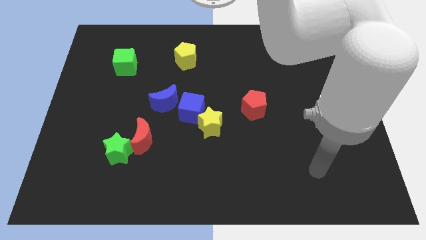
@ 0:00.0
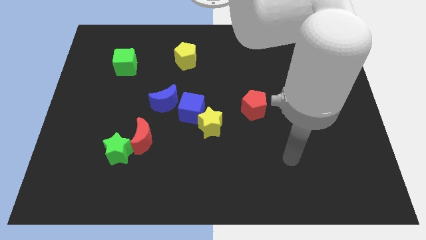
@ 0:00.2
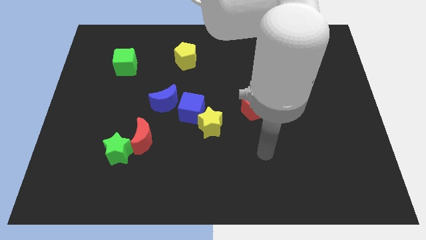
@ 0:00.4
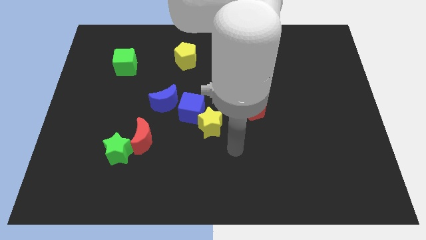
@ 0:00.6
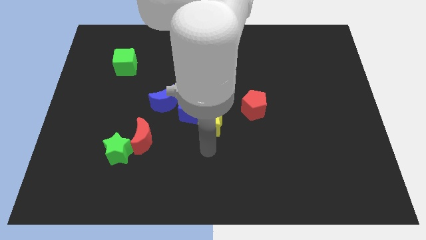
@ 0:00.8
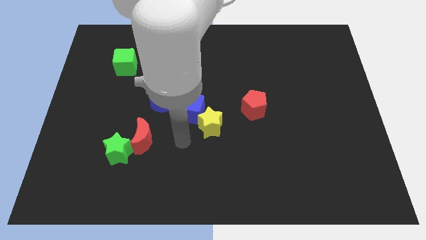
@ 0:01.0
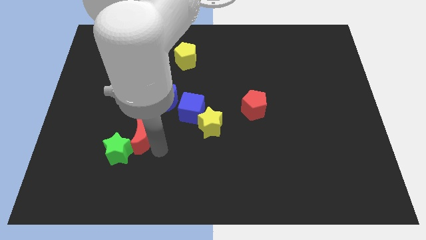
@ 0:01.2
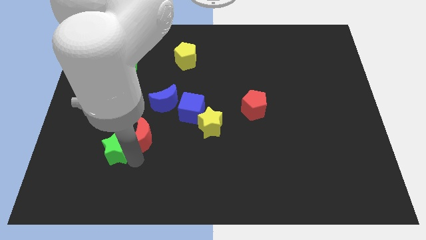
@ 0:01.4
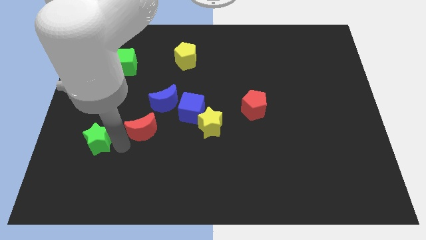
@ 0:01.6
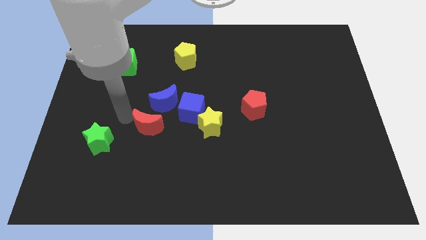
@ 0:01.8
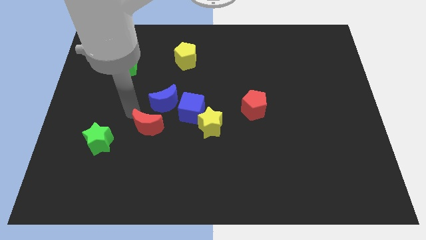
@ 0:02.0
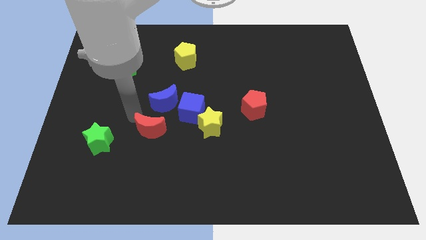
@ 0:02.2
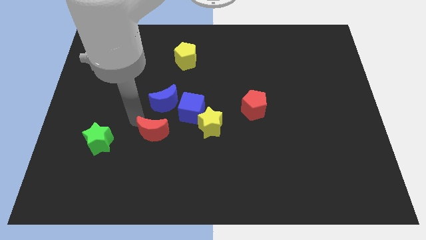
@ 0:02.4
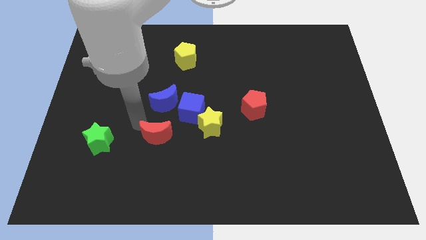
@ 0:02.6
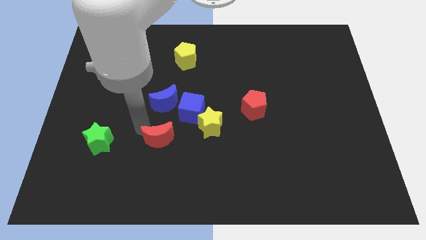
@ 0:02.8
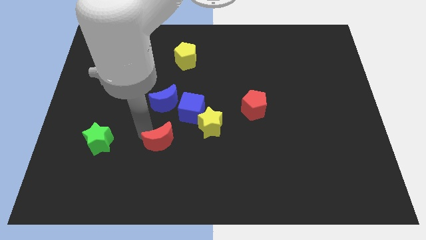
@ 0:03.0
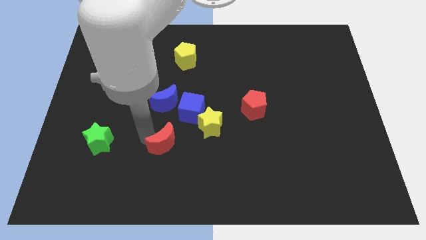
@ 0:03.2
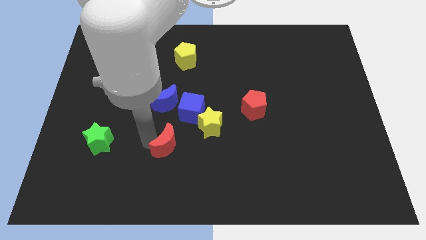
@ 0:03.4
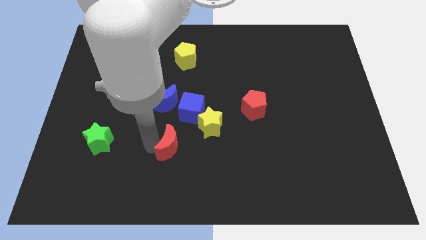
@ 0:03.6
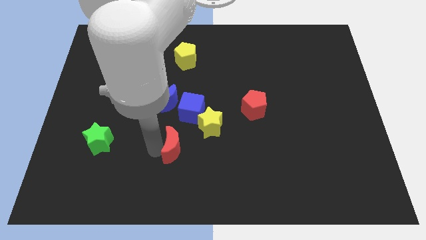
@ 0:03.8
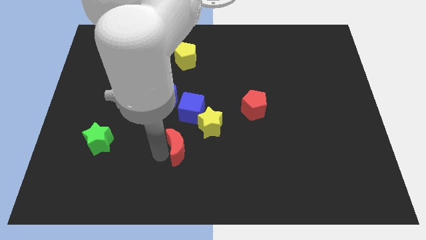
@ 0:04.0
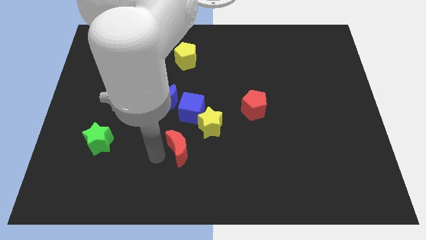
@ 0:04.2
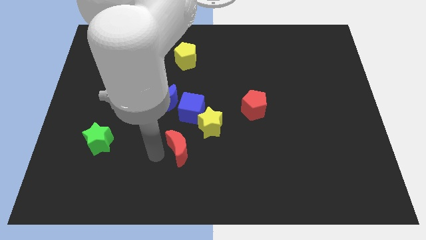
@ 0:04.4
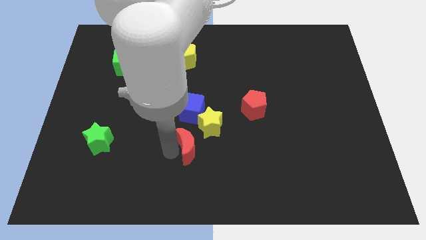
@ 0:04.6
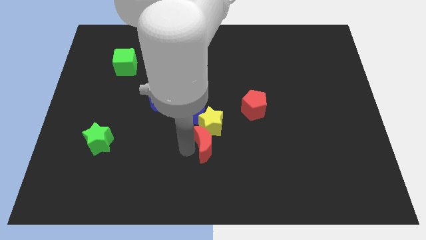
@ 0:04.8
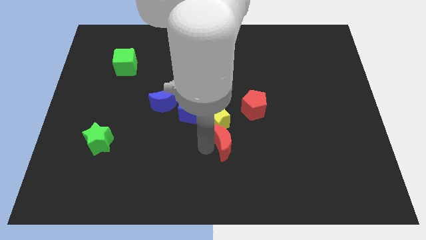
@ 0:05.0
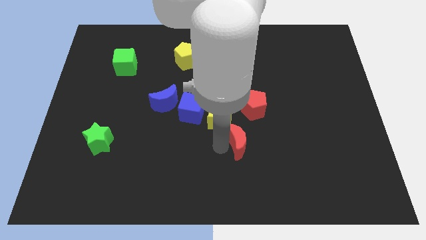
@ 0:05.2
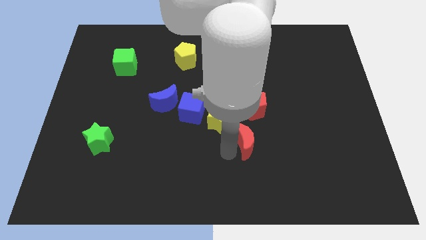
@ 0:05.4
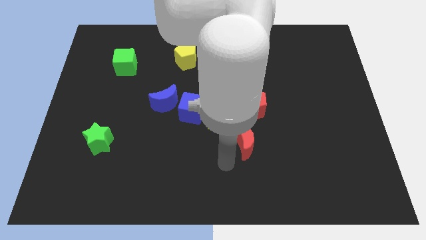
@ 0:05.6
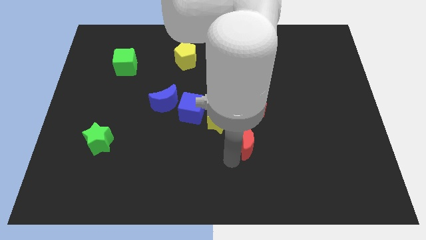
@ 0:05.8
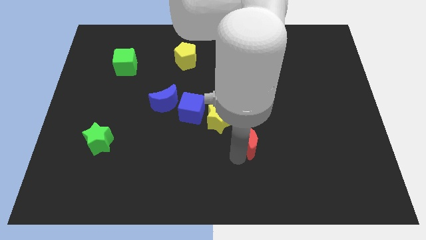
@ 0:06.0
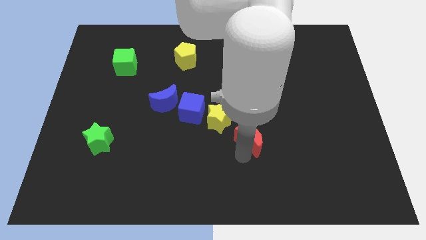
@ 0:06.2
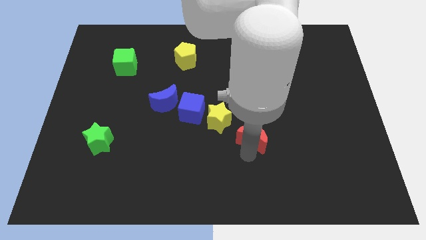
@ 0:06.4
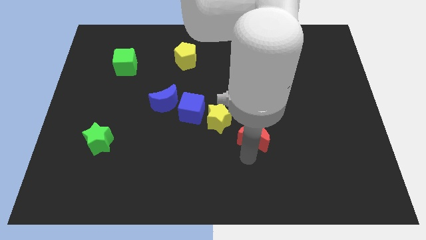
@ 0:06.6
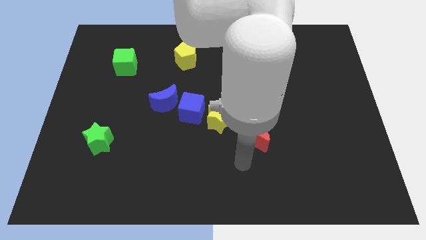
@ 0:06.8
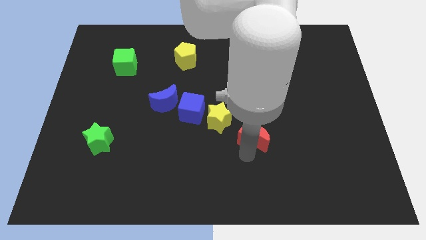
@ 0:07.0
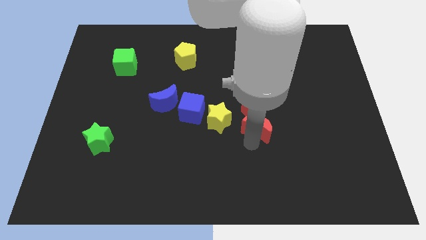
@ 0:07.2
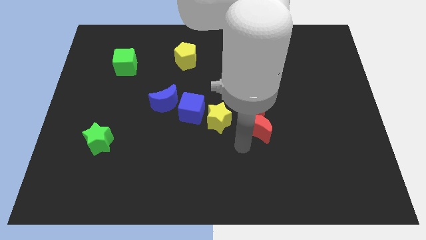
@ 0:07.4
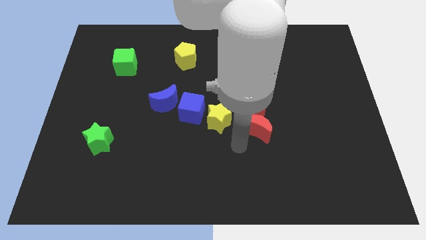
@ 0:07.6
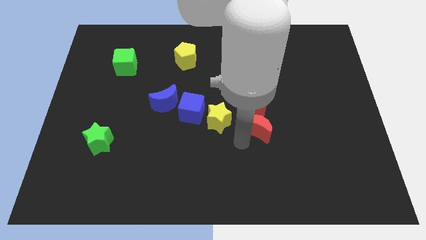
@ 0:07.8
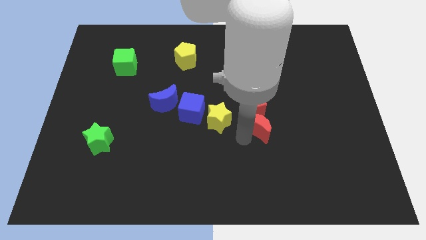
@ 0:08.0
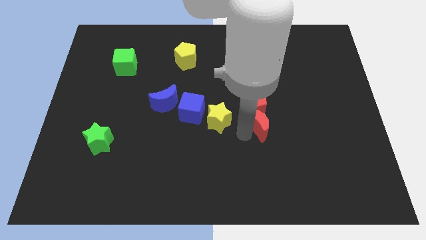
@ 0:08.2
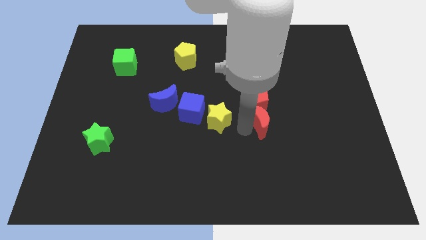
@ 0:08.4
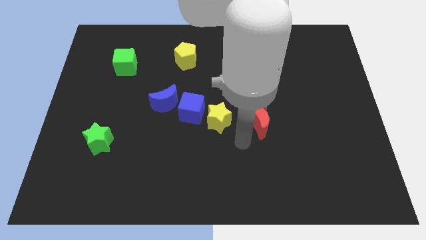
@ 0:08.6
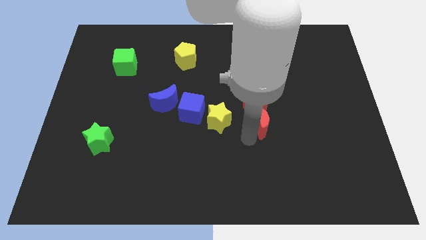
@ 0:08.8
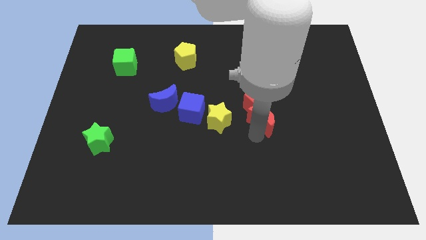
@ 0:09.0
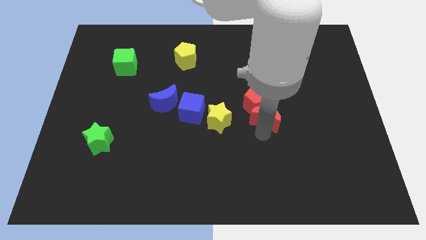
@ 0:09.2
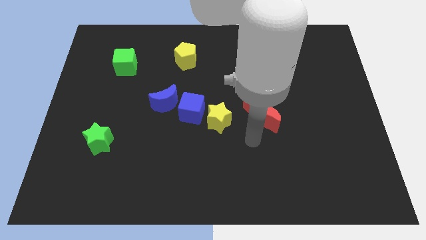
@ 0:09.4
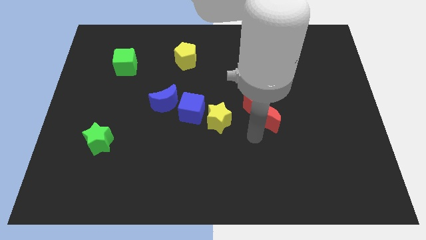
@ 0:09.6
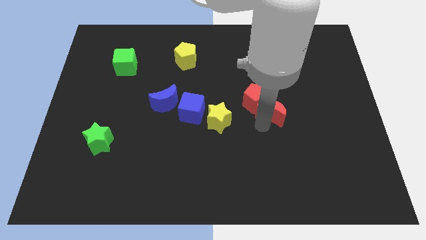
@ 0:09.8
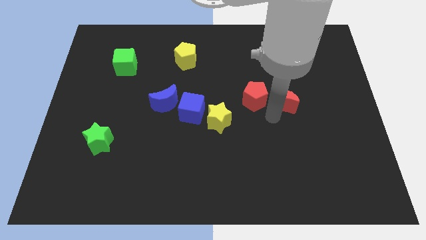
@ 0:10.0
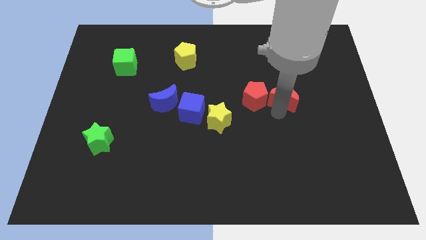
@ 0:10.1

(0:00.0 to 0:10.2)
move the red moon to the top right of the red pentagon

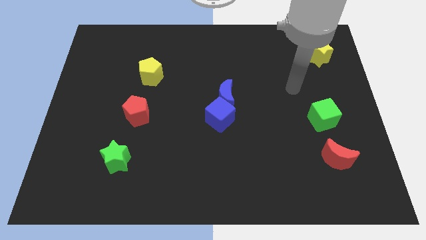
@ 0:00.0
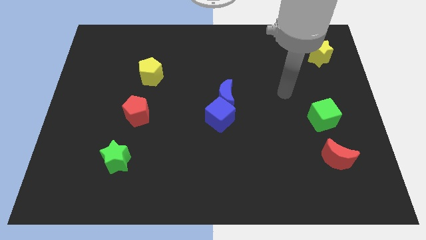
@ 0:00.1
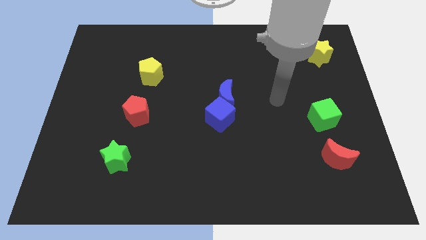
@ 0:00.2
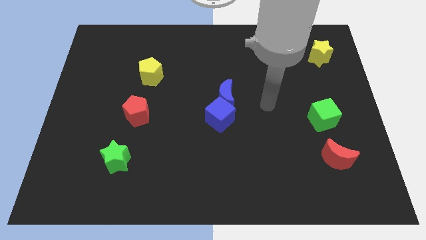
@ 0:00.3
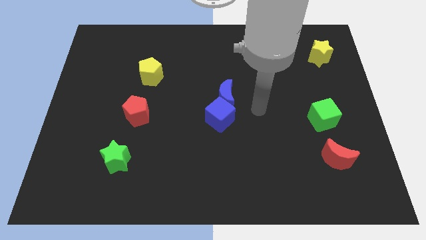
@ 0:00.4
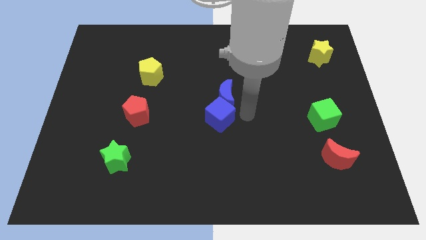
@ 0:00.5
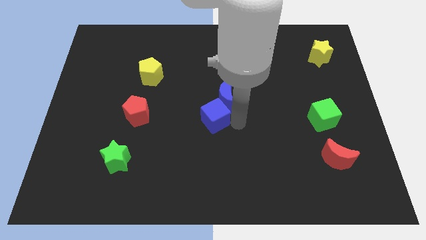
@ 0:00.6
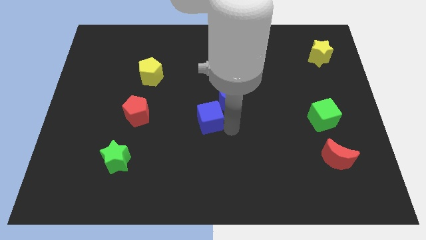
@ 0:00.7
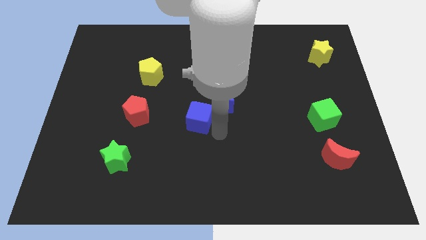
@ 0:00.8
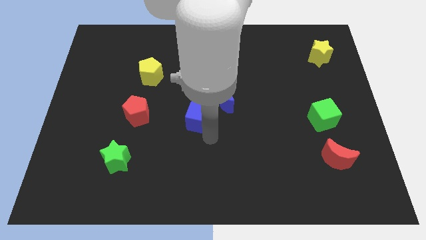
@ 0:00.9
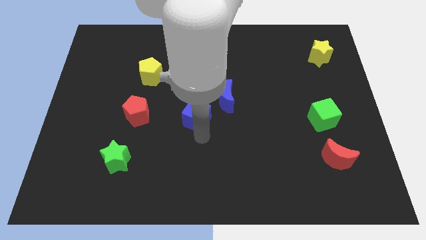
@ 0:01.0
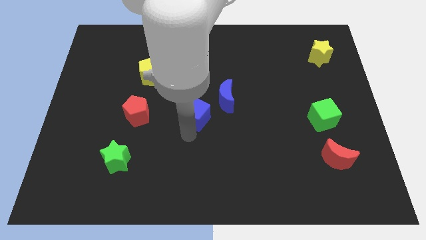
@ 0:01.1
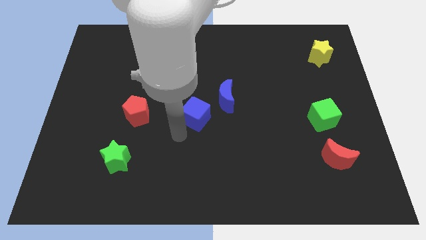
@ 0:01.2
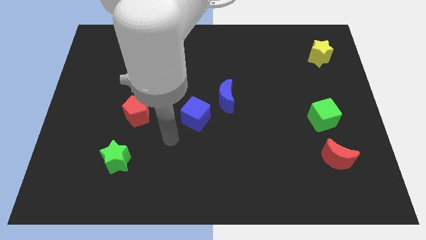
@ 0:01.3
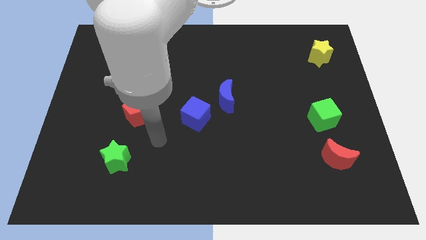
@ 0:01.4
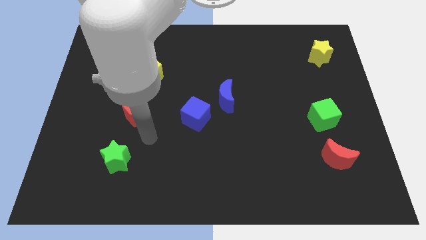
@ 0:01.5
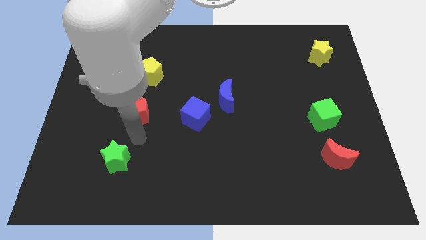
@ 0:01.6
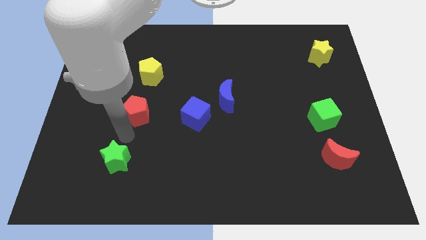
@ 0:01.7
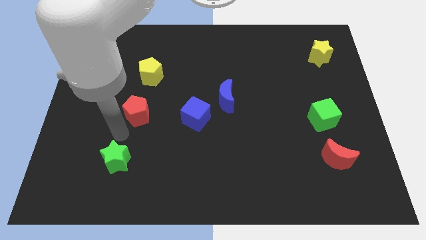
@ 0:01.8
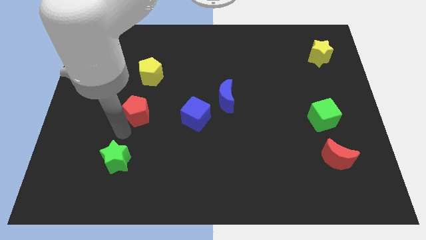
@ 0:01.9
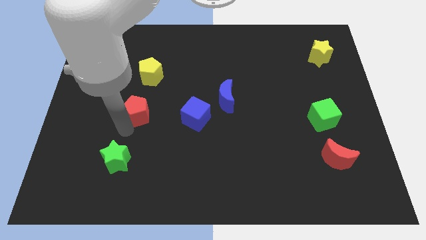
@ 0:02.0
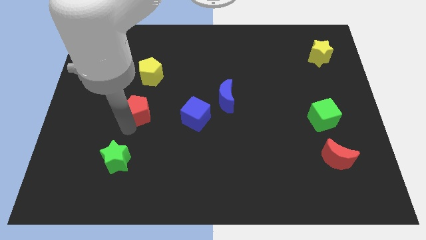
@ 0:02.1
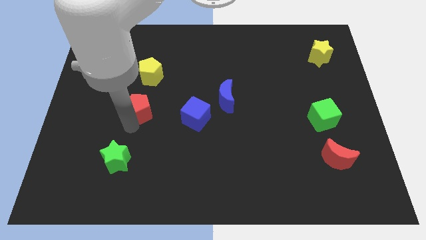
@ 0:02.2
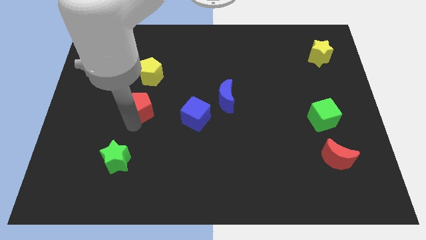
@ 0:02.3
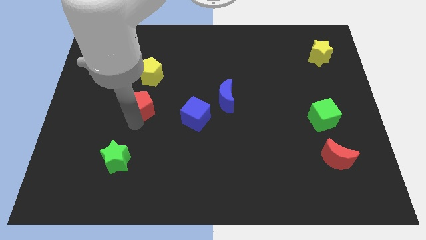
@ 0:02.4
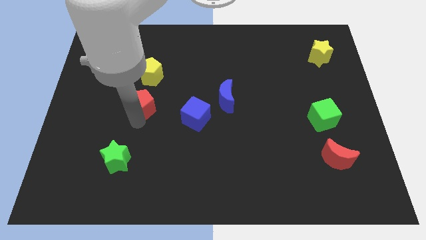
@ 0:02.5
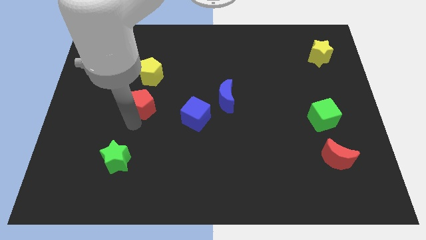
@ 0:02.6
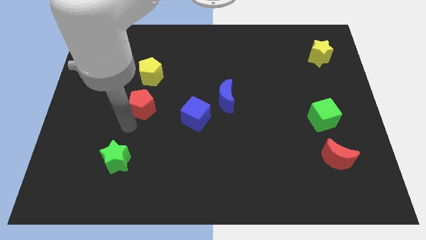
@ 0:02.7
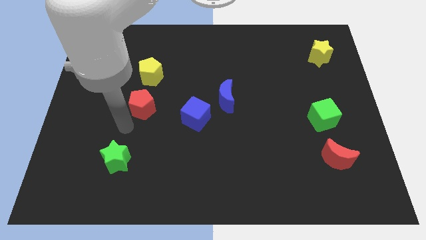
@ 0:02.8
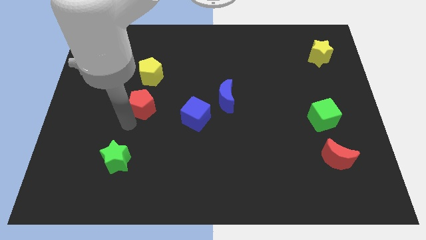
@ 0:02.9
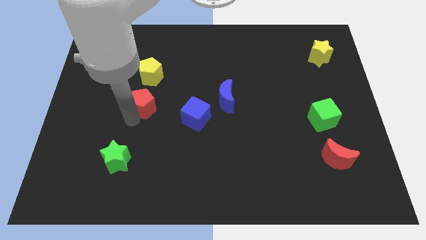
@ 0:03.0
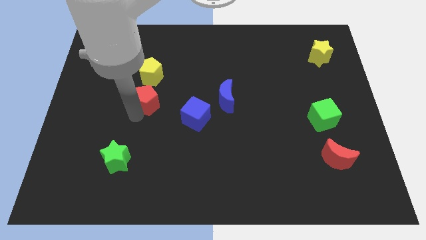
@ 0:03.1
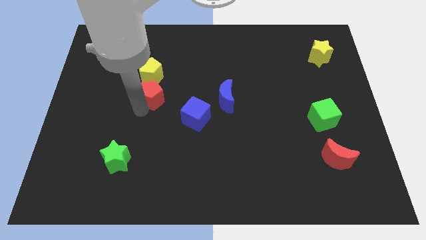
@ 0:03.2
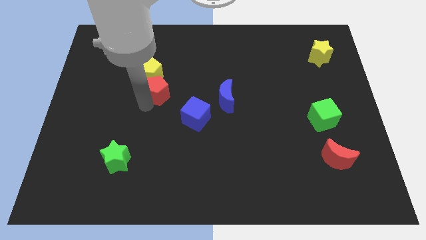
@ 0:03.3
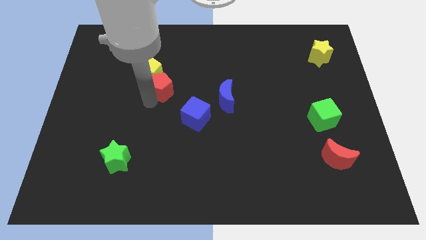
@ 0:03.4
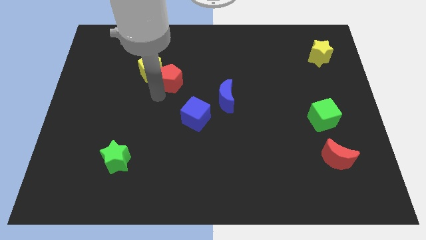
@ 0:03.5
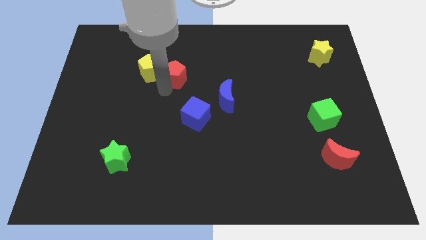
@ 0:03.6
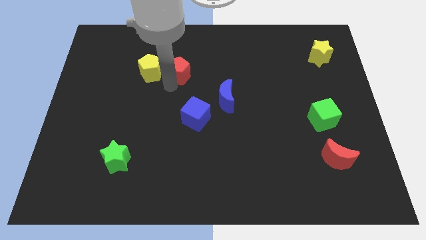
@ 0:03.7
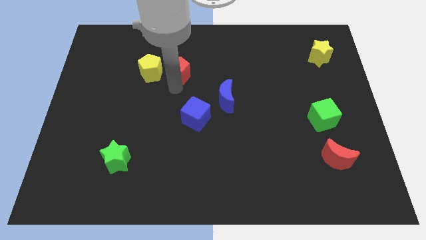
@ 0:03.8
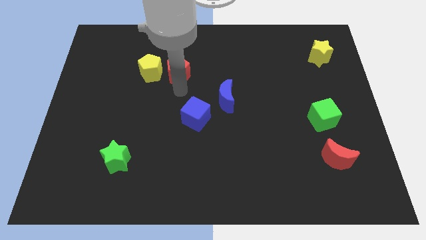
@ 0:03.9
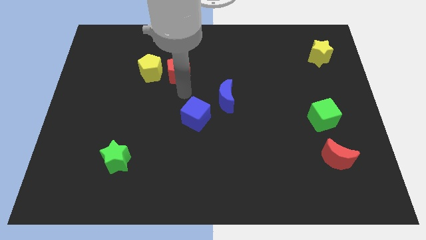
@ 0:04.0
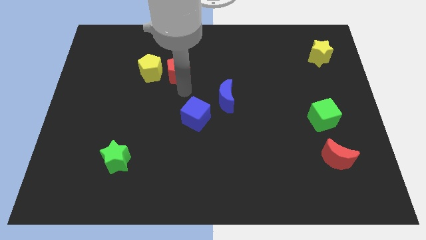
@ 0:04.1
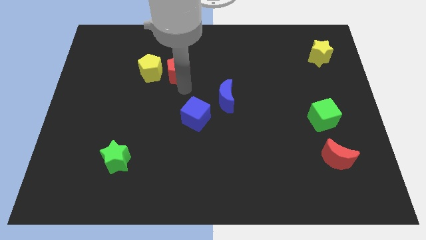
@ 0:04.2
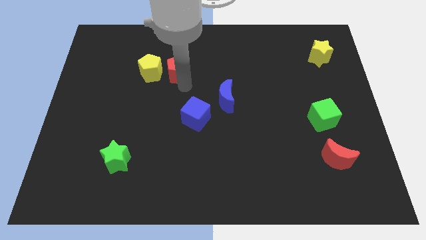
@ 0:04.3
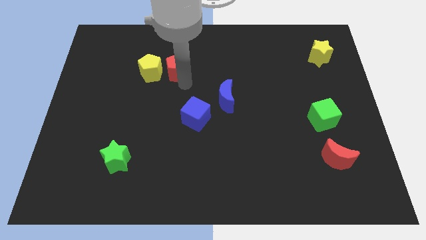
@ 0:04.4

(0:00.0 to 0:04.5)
slide the red pentagon to the top right of the yellow pentagon
